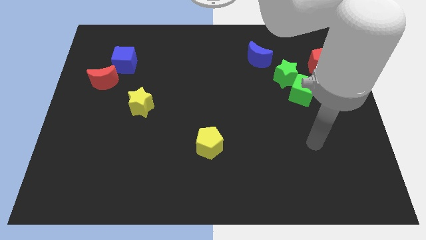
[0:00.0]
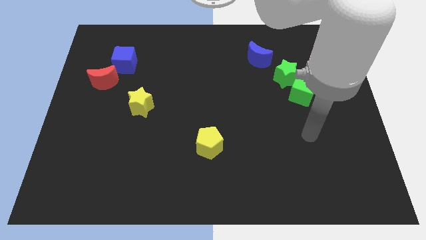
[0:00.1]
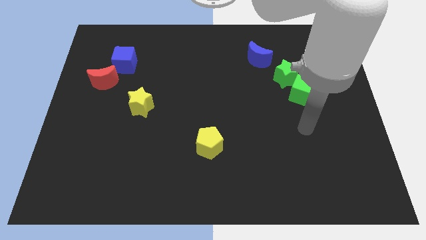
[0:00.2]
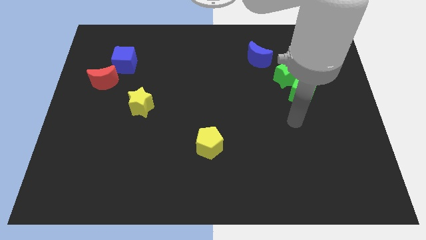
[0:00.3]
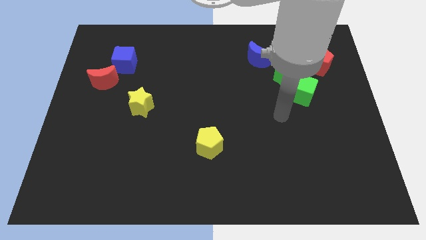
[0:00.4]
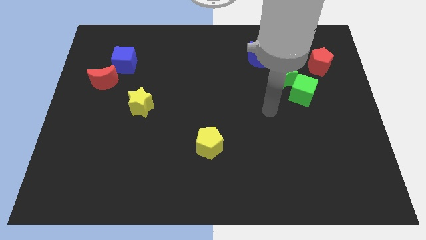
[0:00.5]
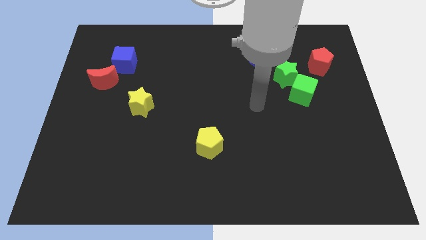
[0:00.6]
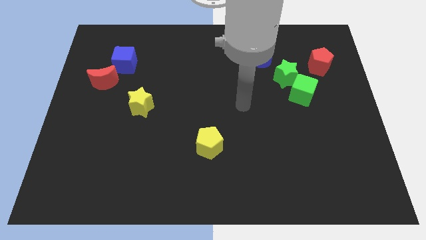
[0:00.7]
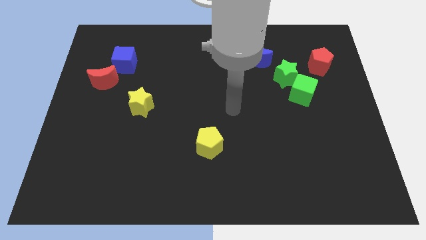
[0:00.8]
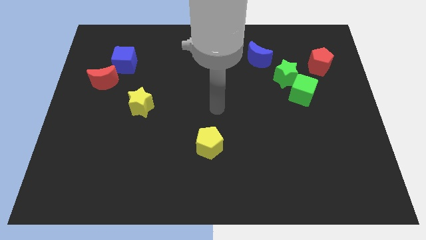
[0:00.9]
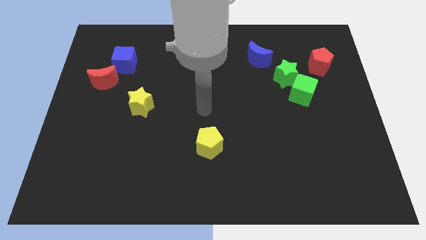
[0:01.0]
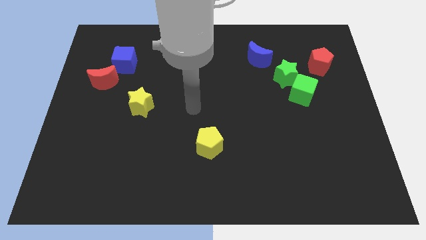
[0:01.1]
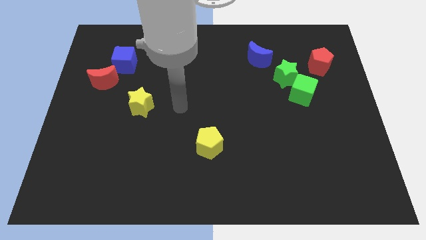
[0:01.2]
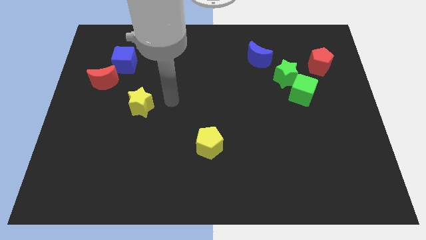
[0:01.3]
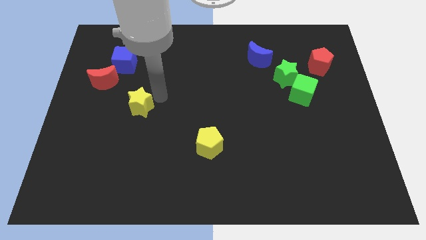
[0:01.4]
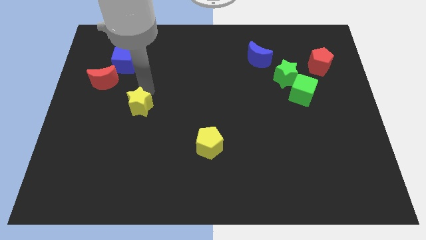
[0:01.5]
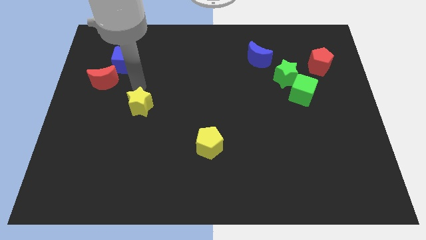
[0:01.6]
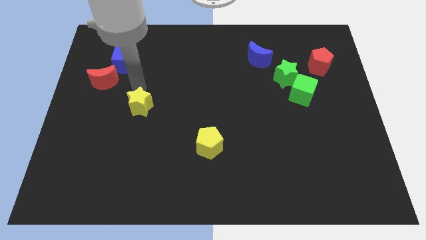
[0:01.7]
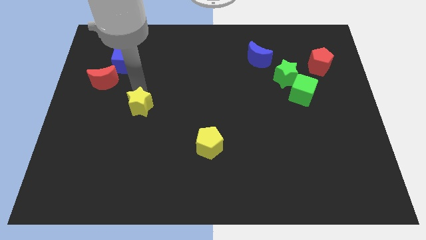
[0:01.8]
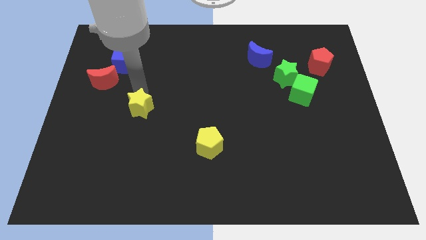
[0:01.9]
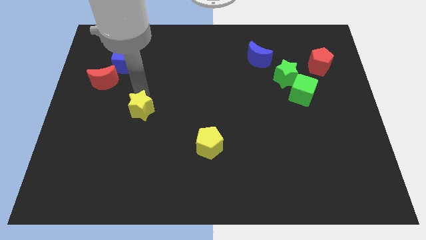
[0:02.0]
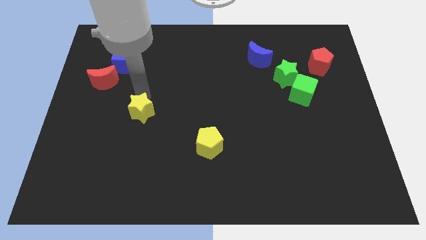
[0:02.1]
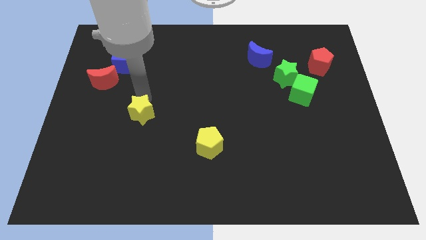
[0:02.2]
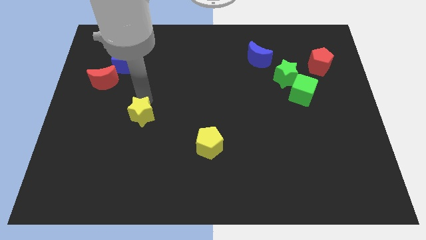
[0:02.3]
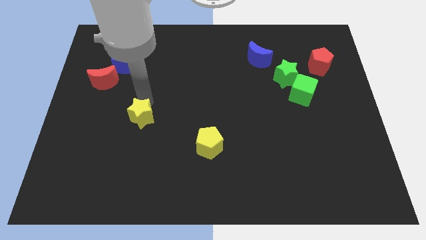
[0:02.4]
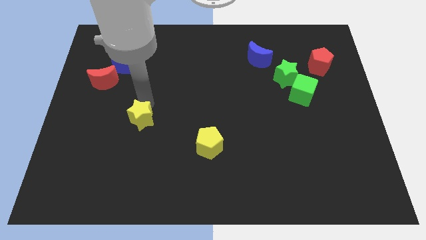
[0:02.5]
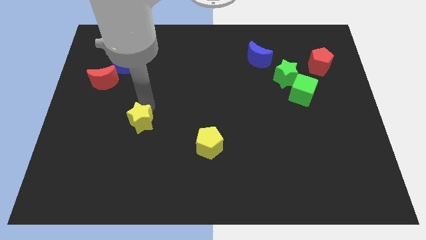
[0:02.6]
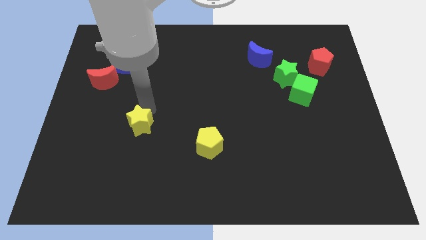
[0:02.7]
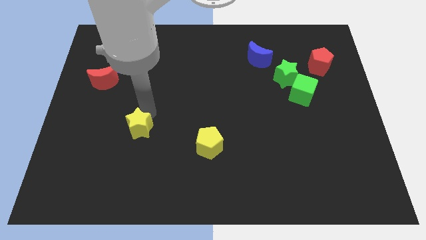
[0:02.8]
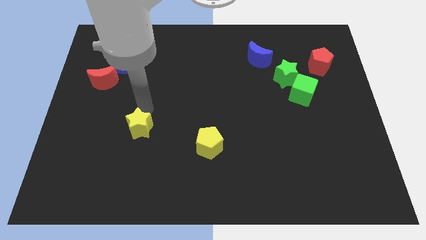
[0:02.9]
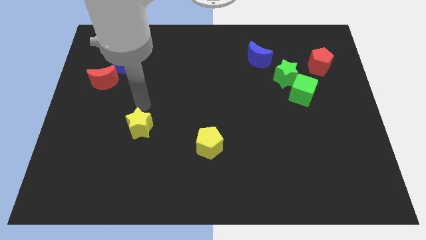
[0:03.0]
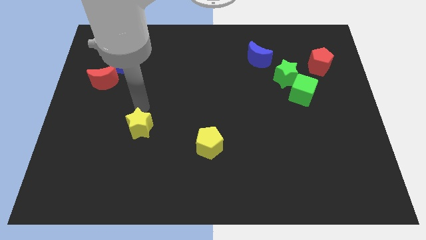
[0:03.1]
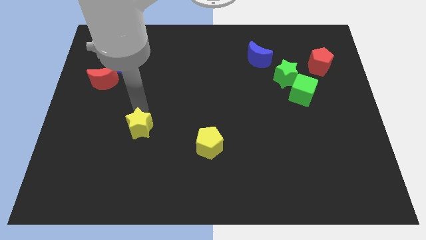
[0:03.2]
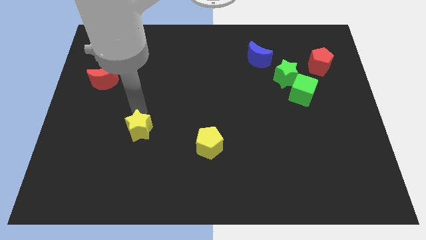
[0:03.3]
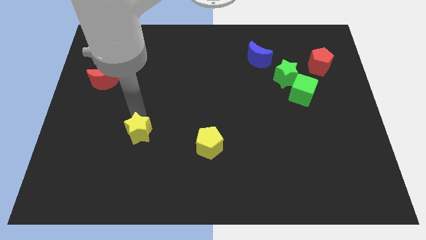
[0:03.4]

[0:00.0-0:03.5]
push the yellow star downwards a little bit

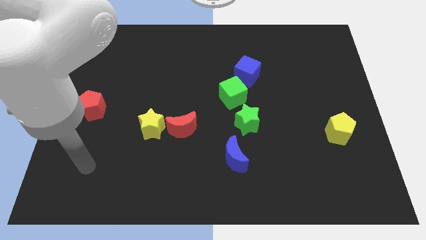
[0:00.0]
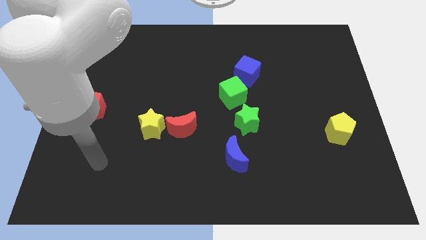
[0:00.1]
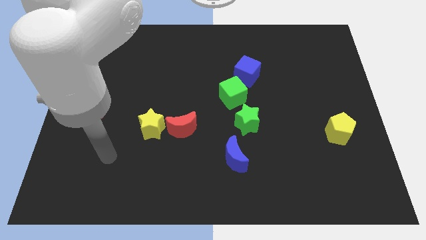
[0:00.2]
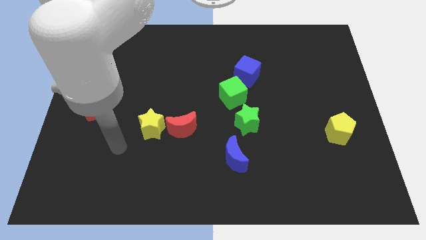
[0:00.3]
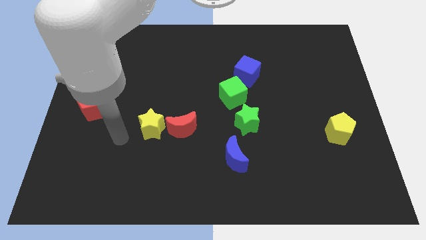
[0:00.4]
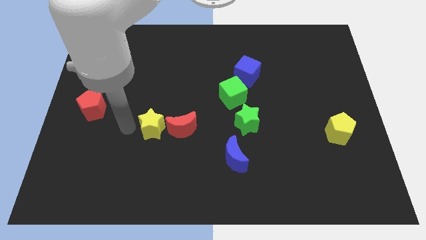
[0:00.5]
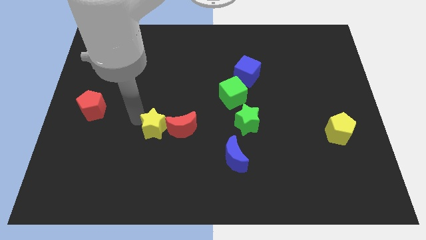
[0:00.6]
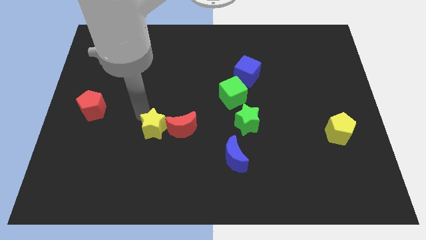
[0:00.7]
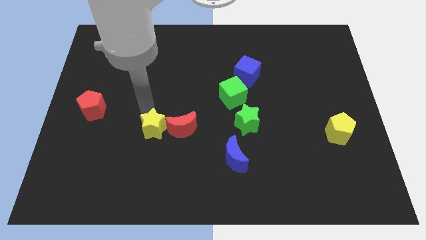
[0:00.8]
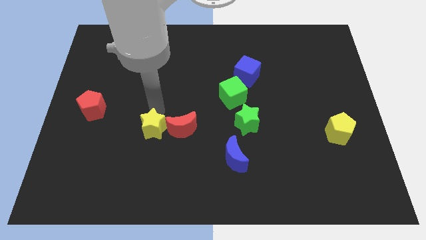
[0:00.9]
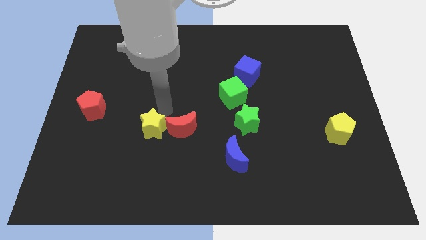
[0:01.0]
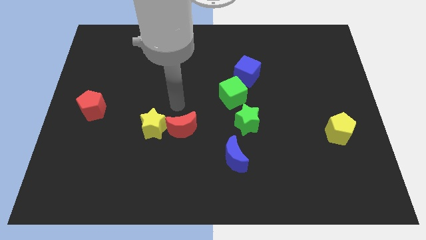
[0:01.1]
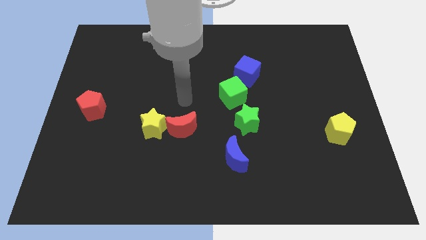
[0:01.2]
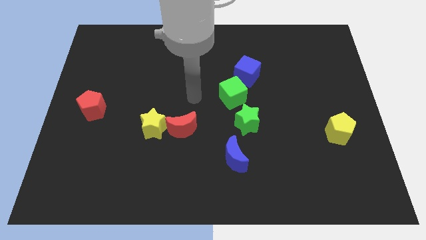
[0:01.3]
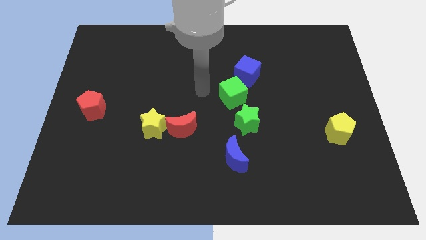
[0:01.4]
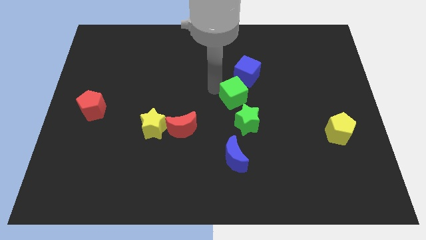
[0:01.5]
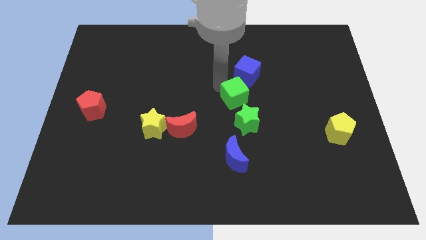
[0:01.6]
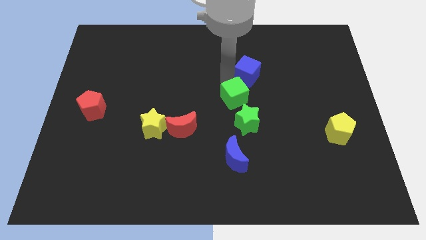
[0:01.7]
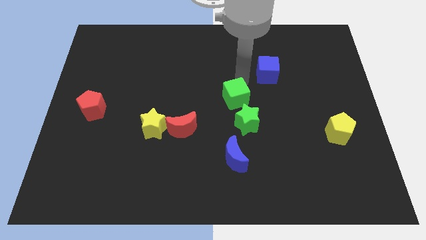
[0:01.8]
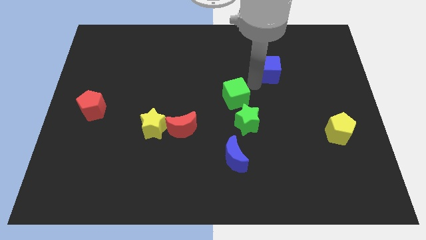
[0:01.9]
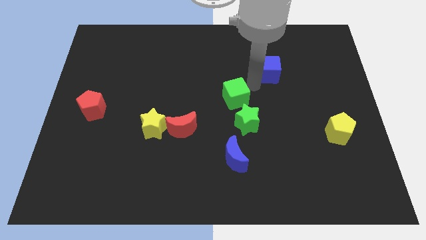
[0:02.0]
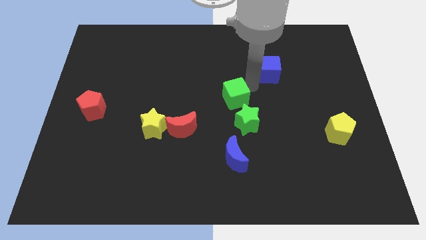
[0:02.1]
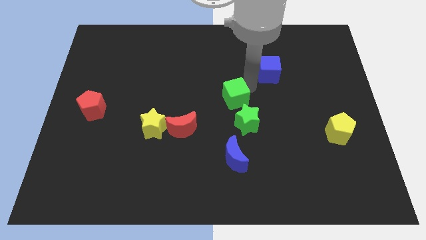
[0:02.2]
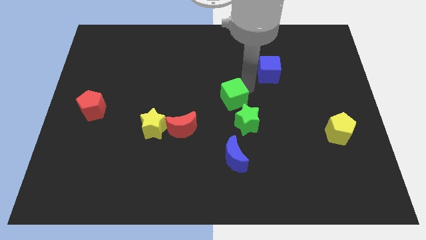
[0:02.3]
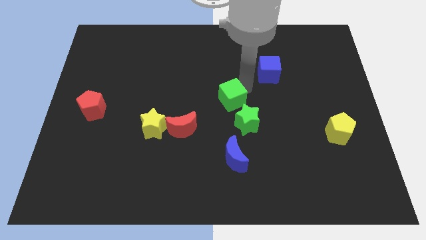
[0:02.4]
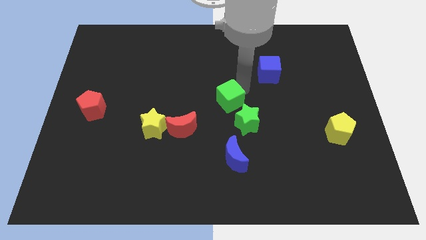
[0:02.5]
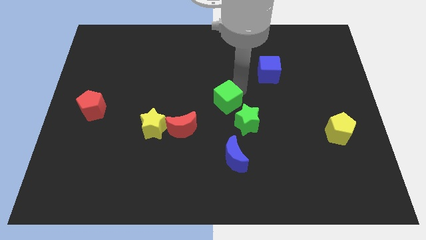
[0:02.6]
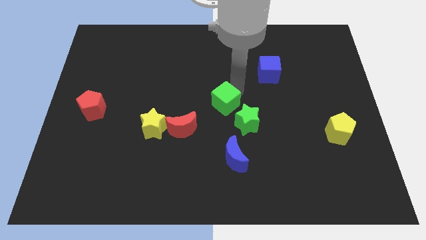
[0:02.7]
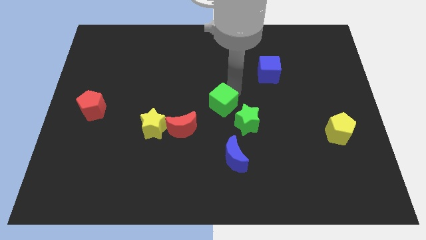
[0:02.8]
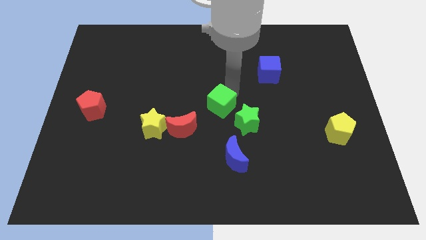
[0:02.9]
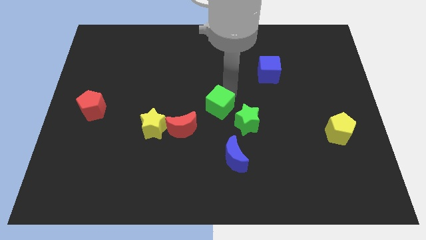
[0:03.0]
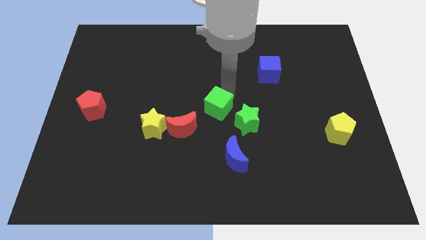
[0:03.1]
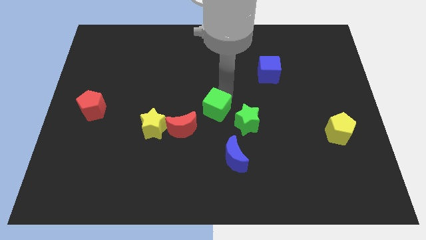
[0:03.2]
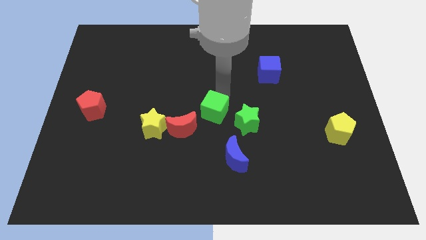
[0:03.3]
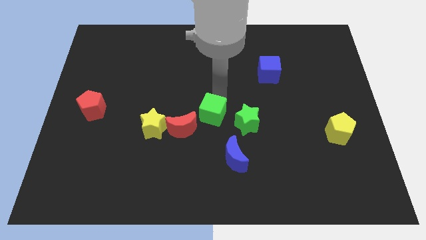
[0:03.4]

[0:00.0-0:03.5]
move the green cube down and left diagonally a little bit

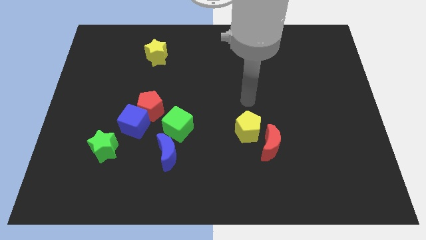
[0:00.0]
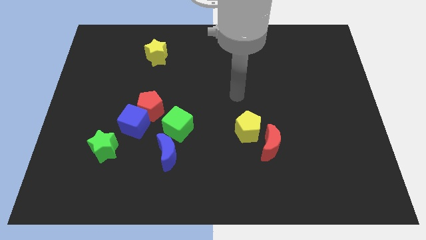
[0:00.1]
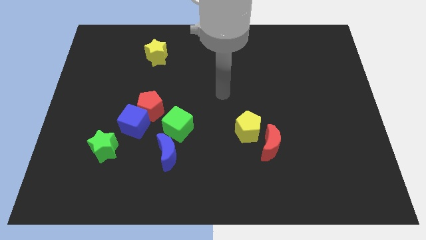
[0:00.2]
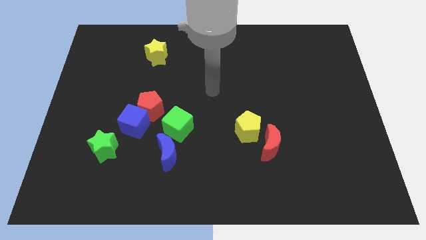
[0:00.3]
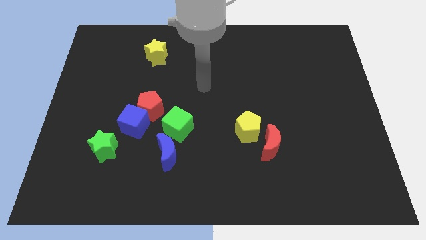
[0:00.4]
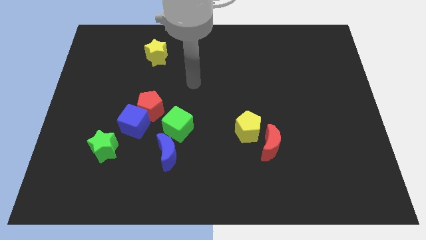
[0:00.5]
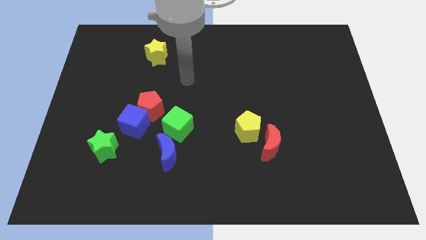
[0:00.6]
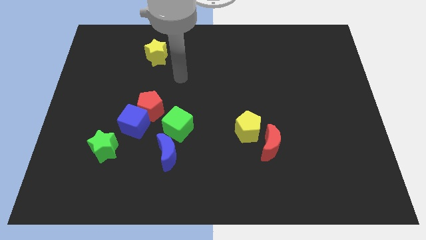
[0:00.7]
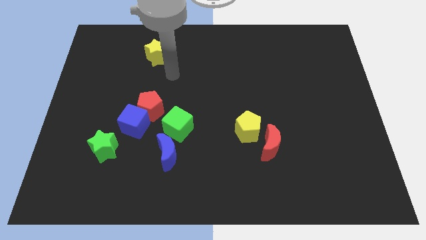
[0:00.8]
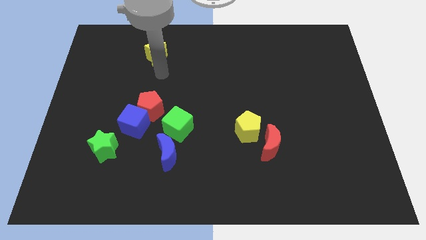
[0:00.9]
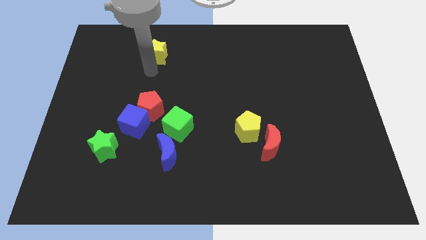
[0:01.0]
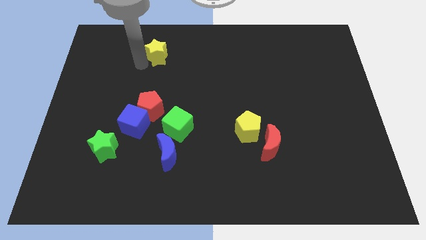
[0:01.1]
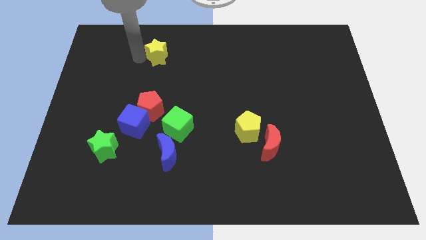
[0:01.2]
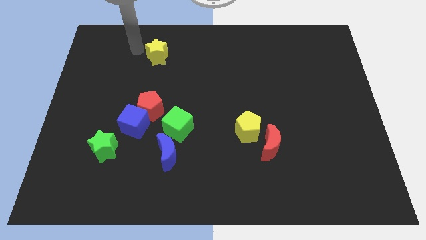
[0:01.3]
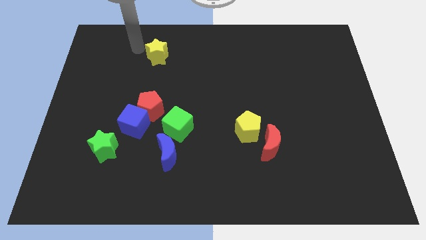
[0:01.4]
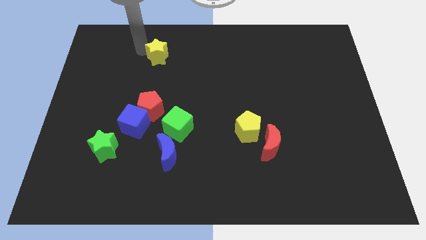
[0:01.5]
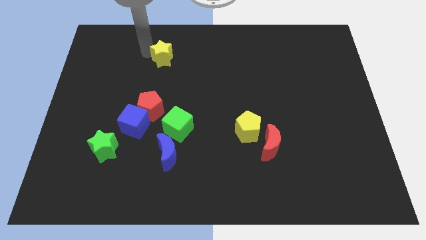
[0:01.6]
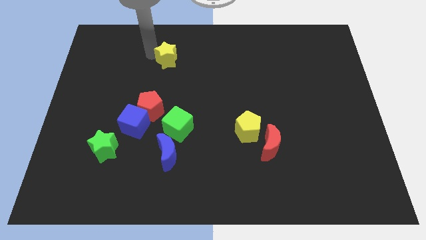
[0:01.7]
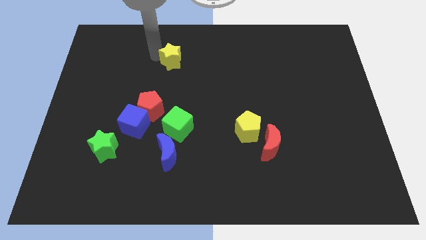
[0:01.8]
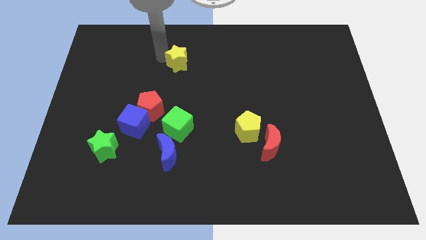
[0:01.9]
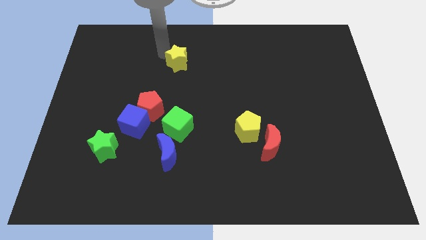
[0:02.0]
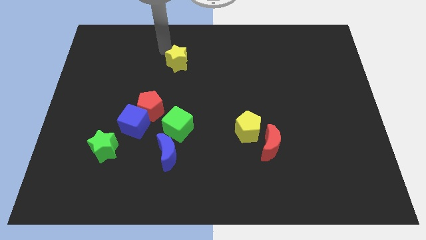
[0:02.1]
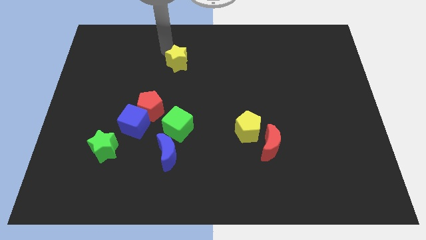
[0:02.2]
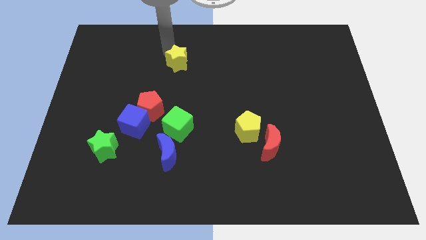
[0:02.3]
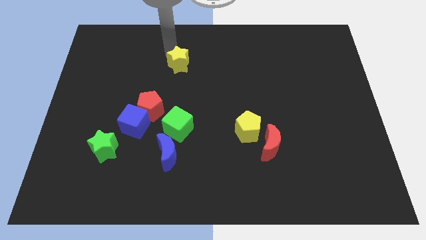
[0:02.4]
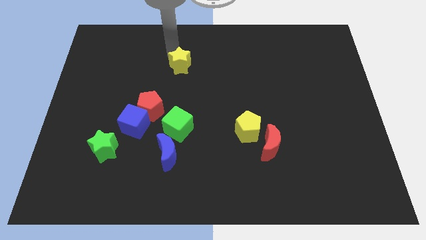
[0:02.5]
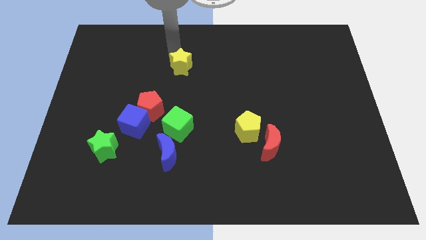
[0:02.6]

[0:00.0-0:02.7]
slightly slide the yellow star diagonally down and right
